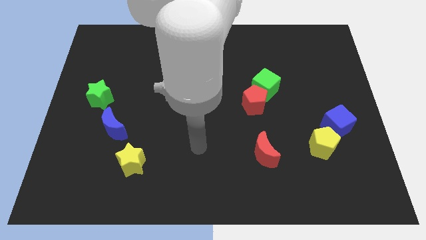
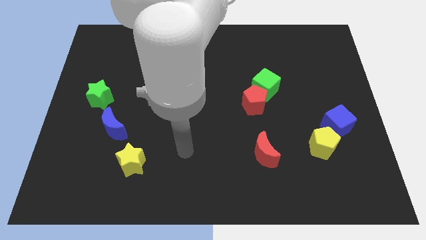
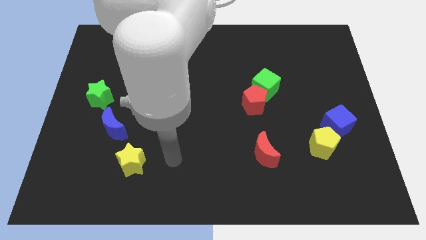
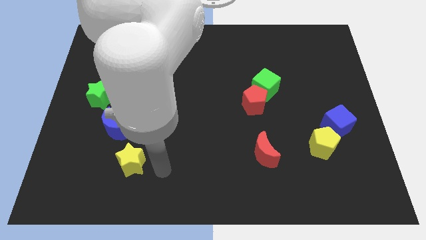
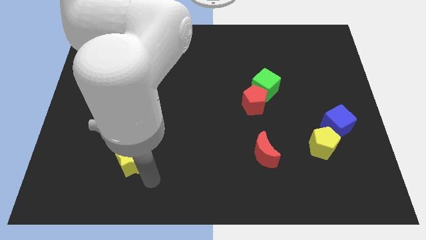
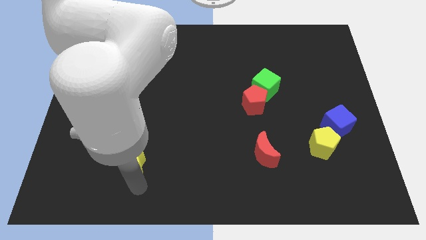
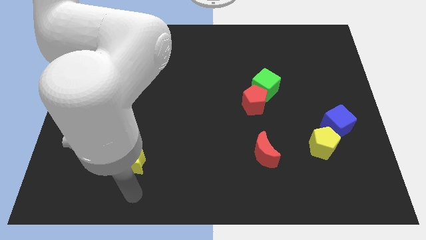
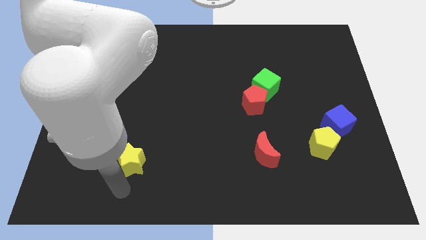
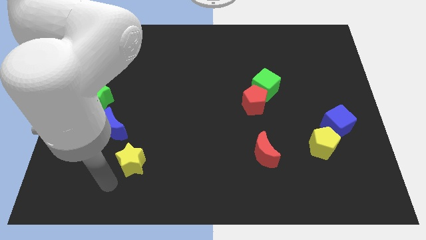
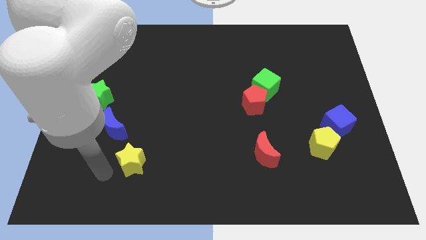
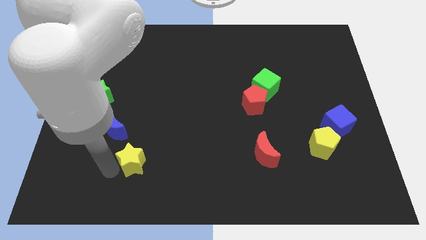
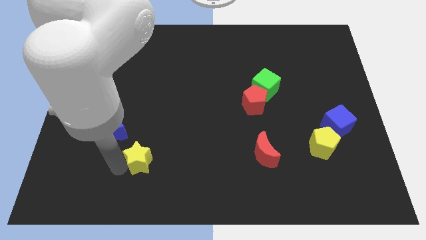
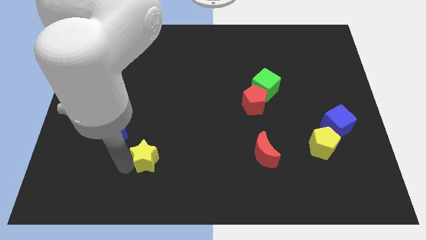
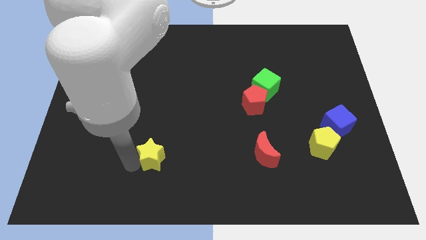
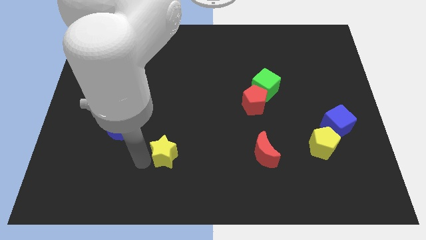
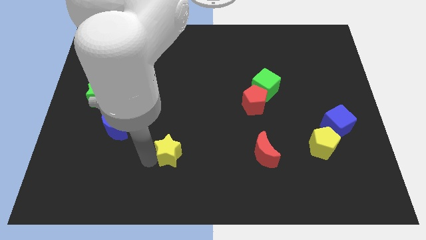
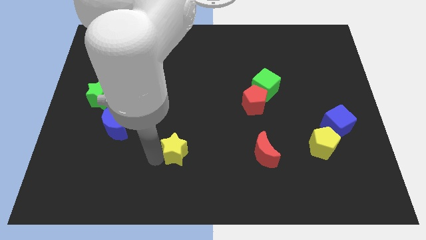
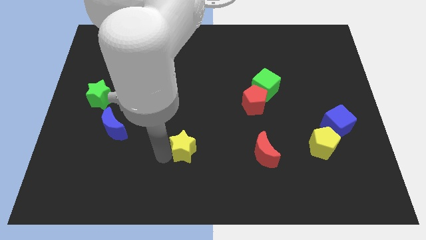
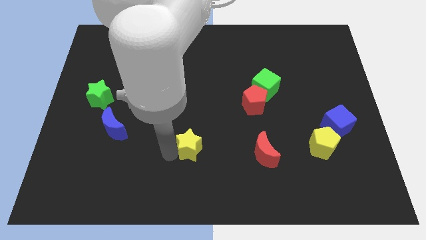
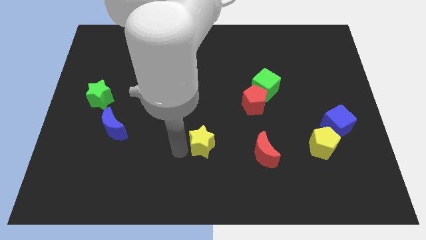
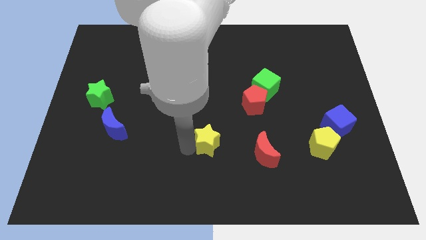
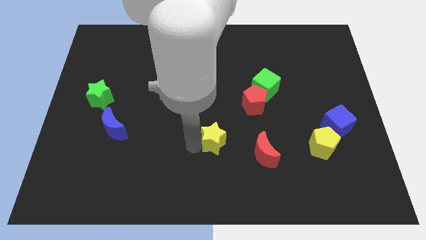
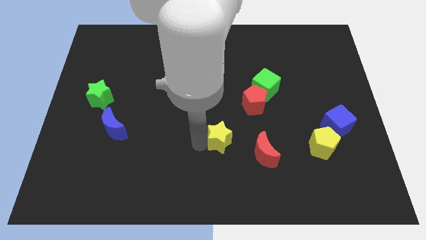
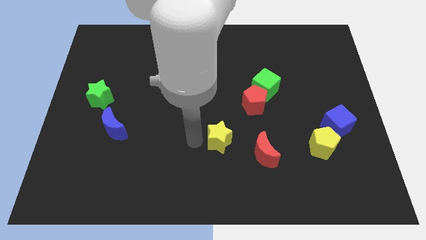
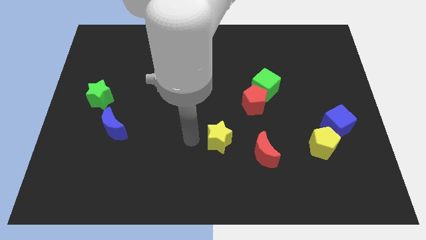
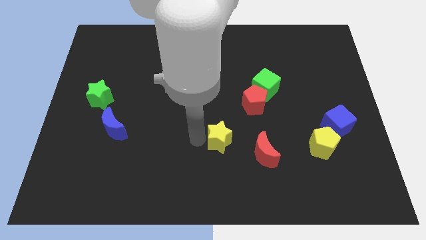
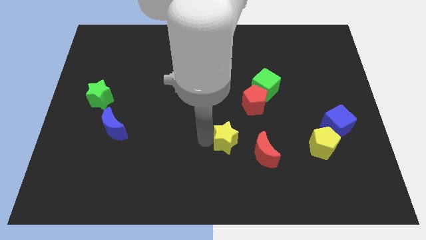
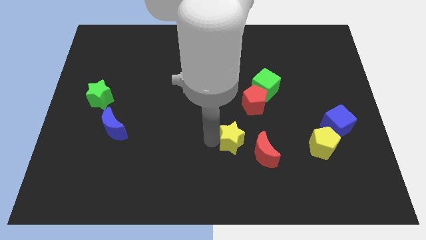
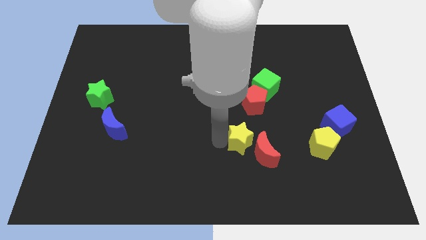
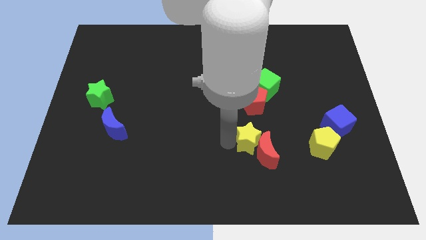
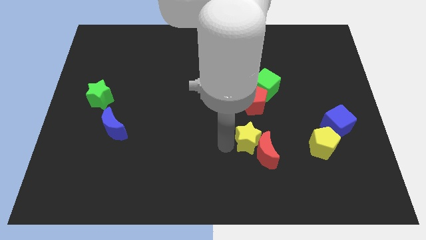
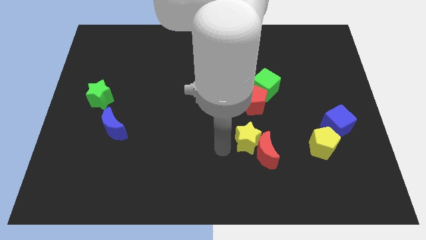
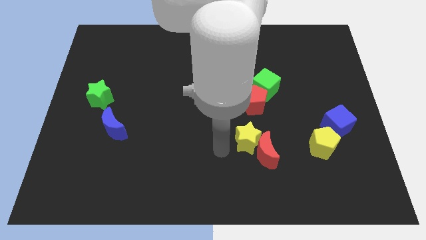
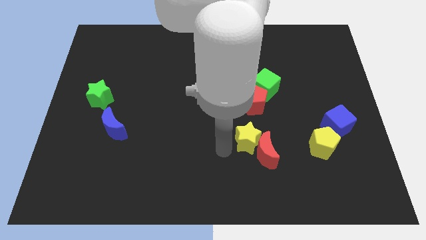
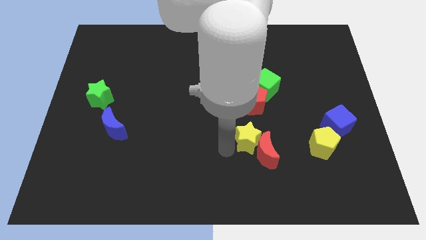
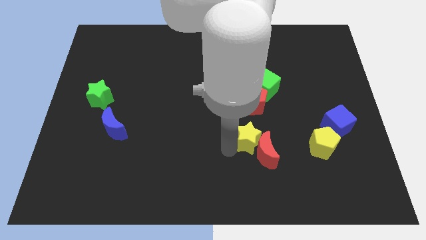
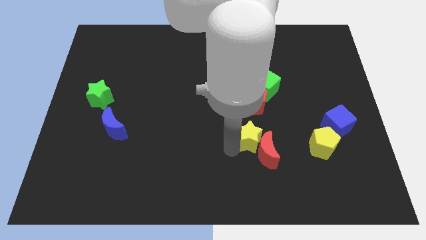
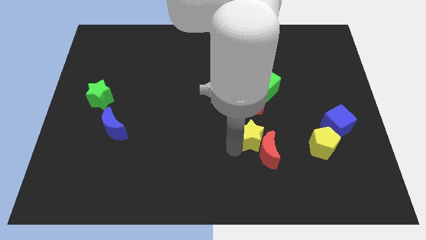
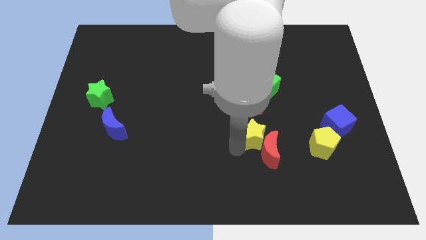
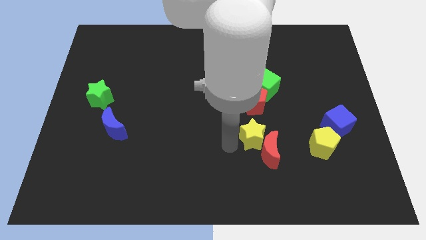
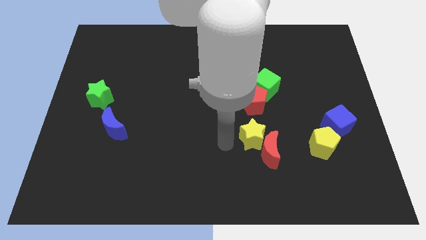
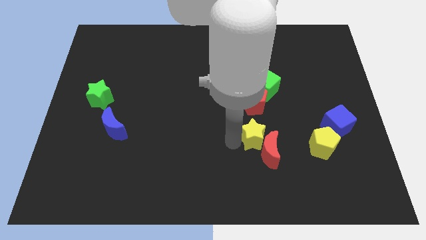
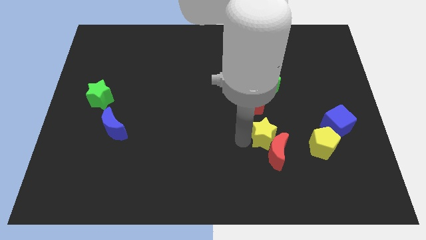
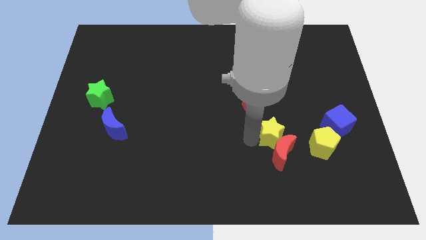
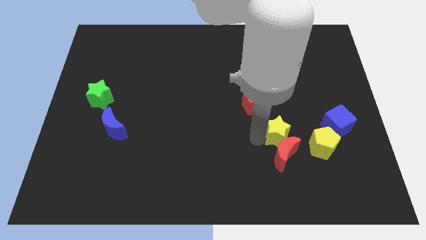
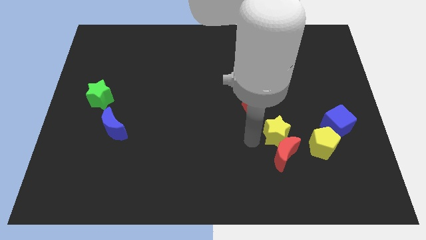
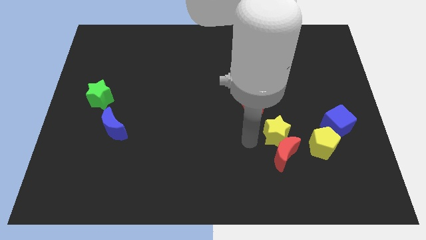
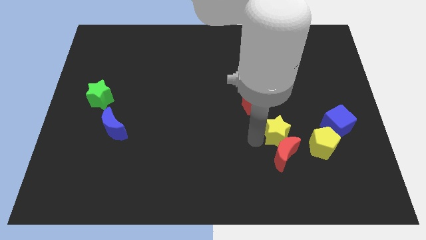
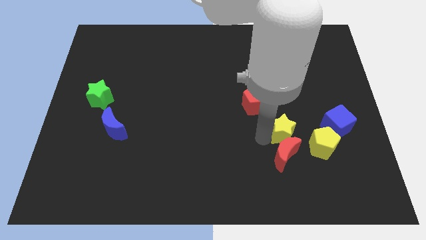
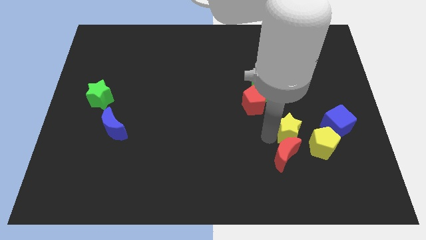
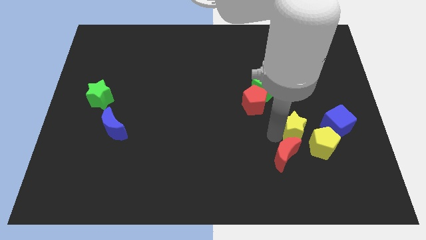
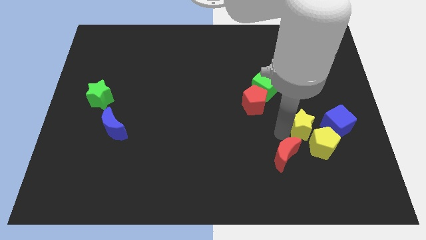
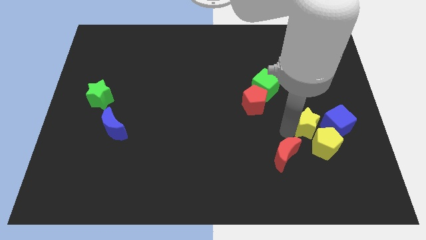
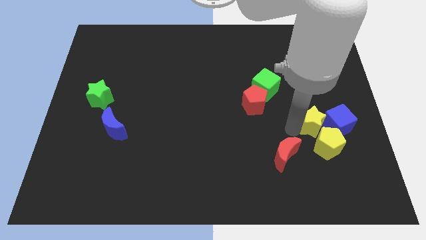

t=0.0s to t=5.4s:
push the yellow star towards the blue cube

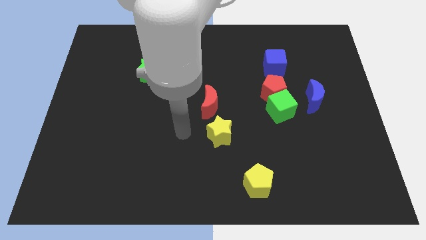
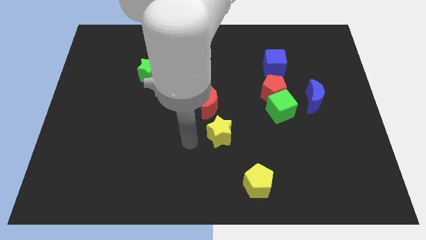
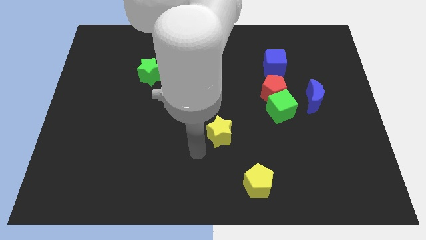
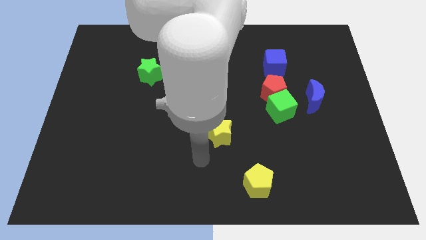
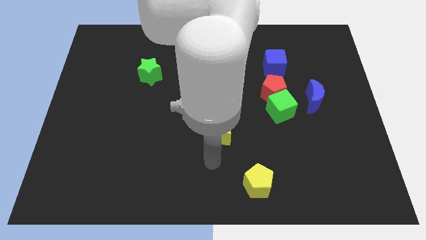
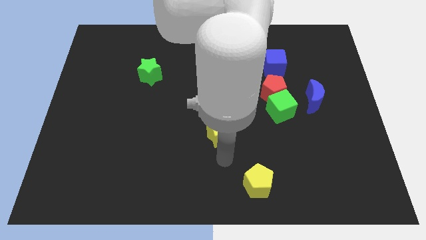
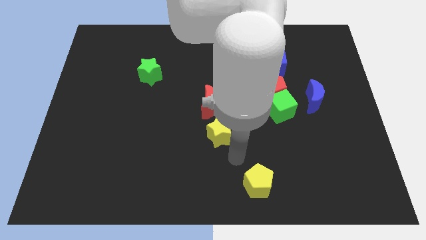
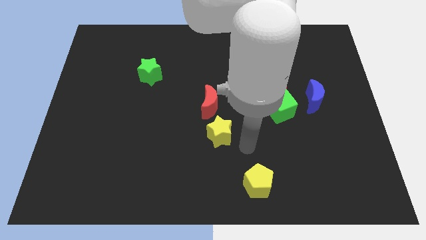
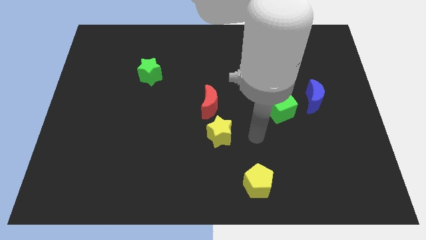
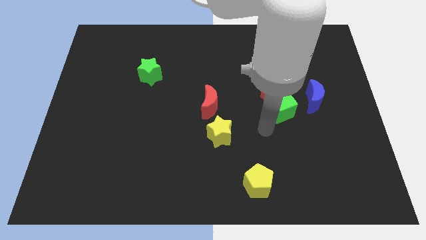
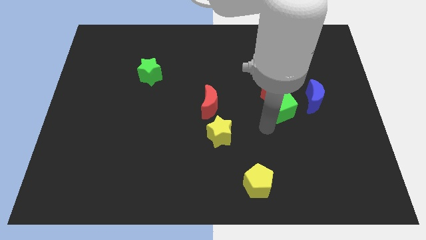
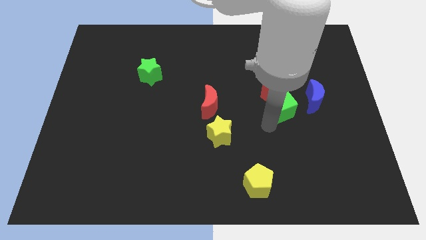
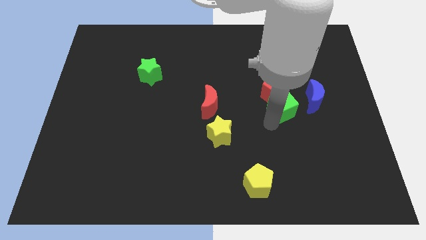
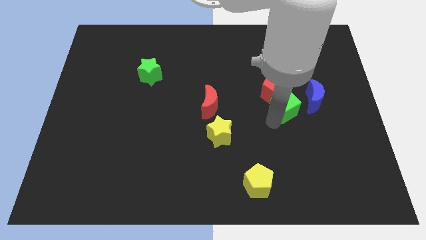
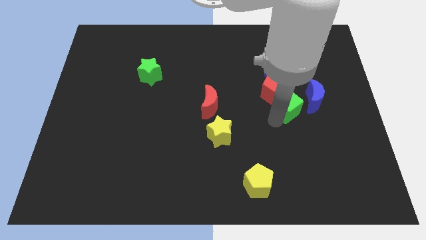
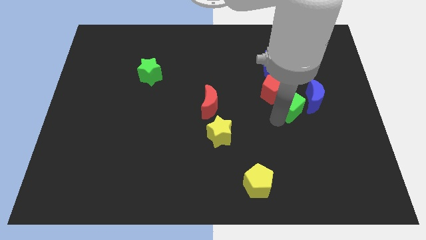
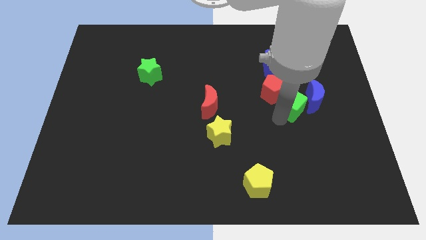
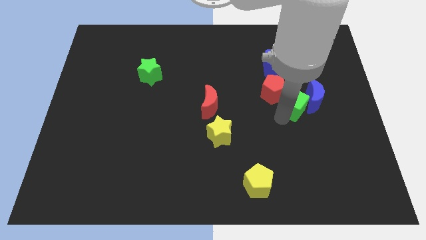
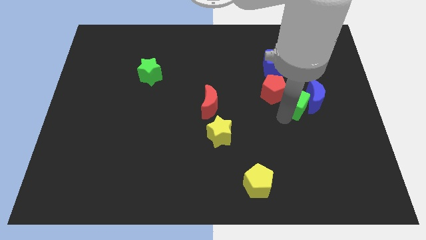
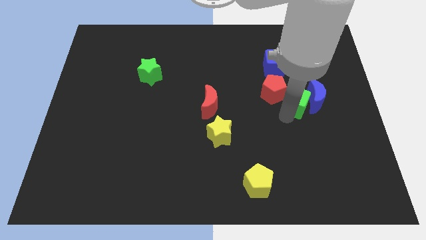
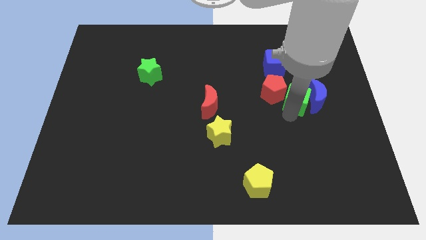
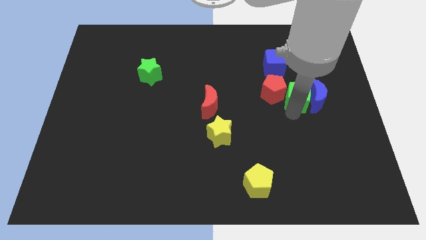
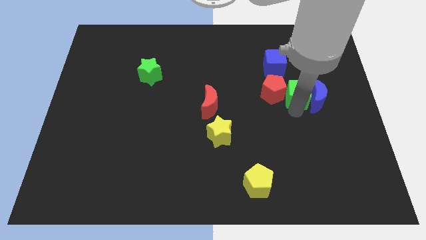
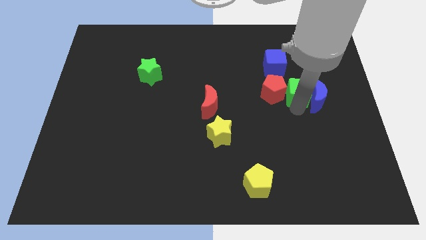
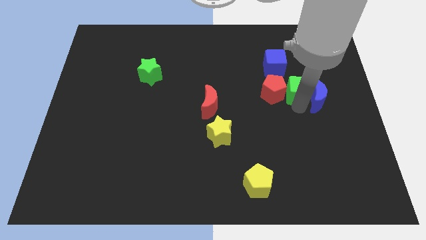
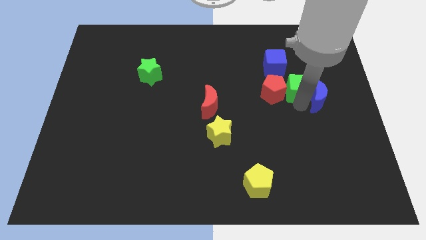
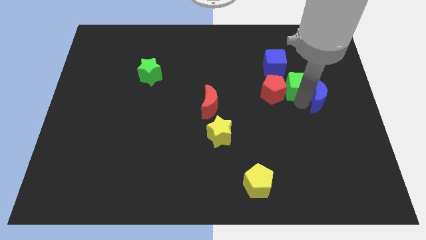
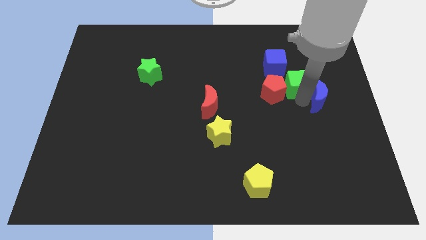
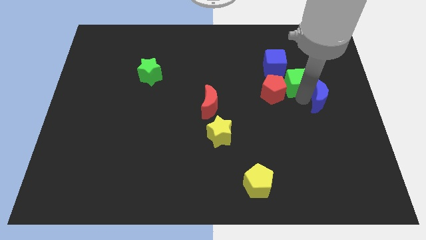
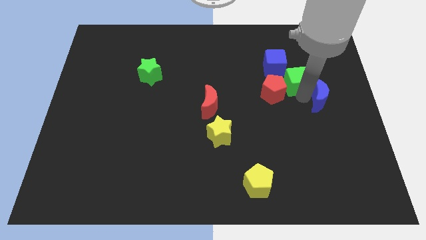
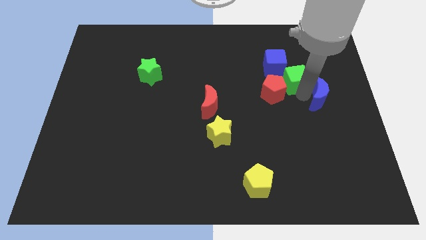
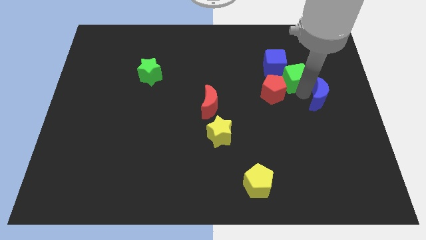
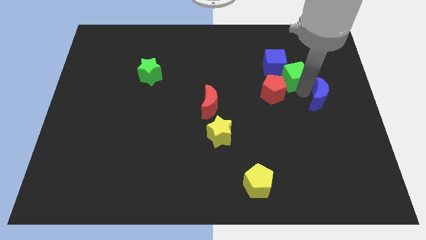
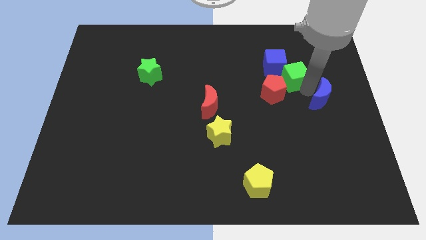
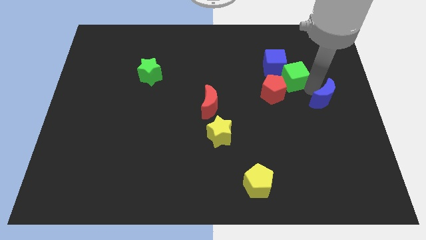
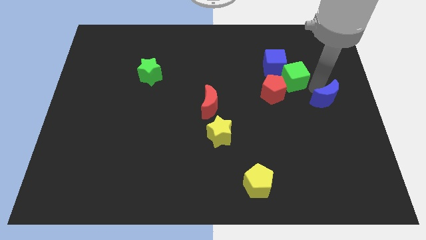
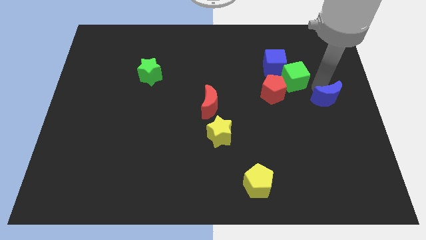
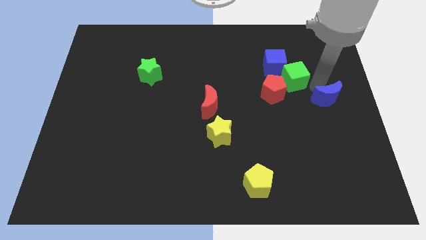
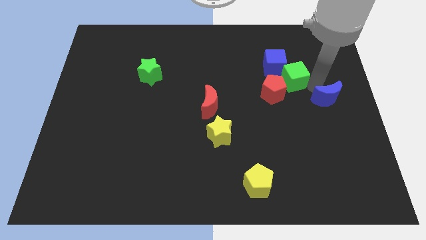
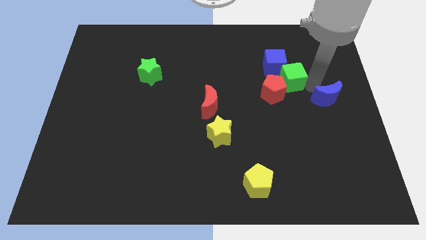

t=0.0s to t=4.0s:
move the green cube next to the blue cube
